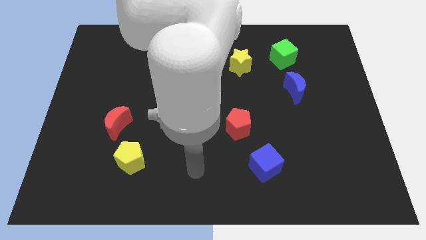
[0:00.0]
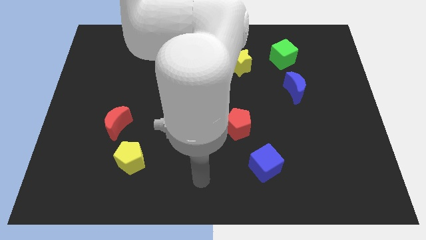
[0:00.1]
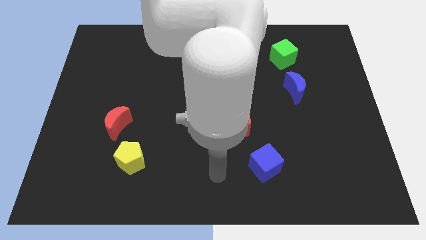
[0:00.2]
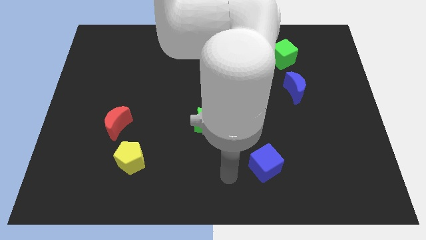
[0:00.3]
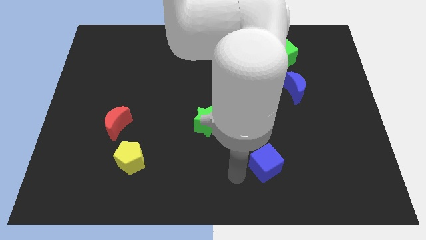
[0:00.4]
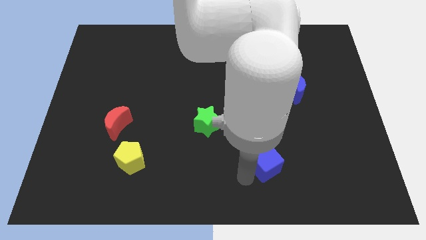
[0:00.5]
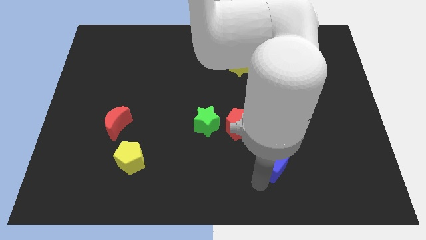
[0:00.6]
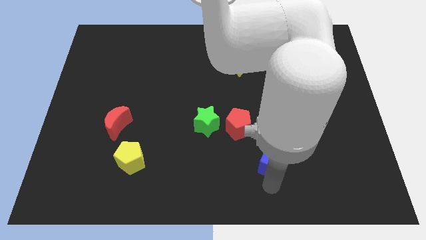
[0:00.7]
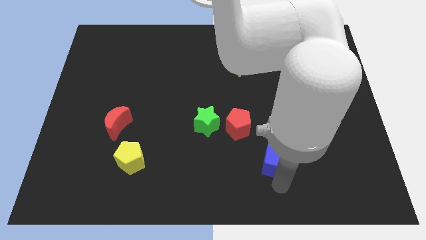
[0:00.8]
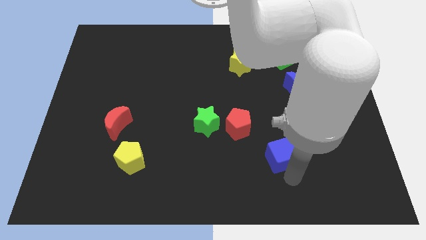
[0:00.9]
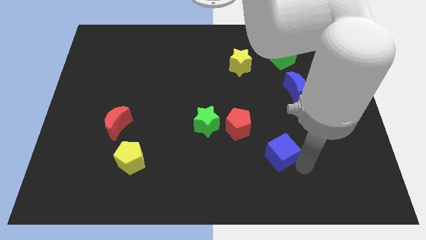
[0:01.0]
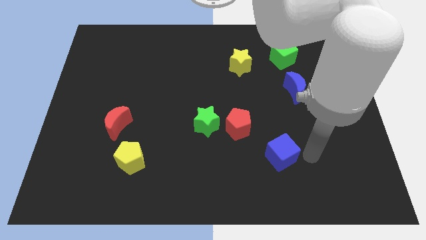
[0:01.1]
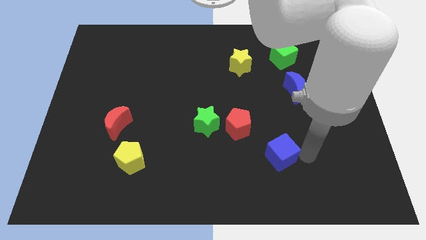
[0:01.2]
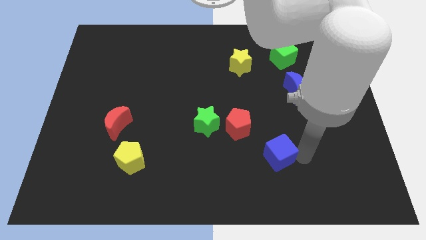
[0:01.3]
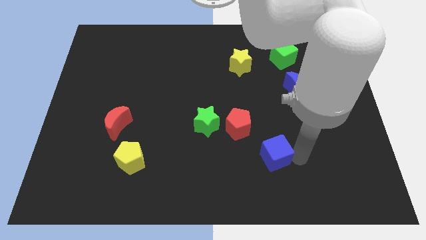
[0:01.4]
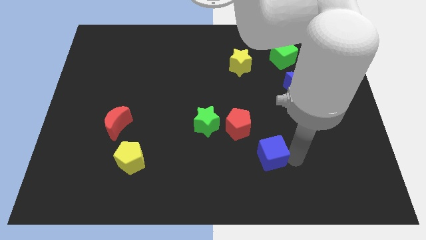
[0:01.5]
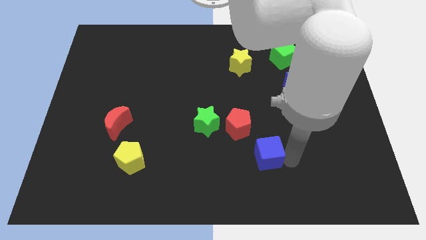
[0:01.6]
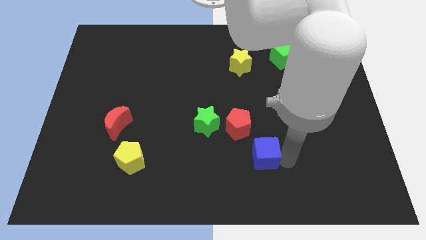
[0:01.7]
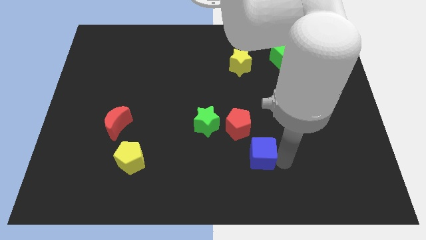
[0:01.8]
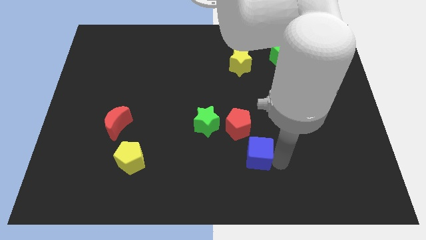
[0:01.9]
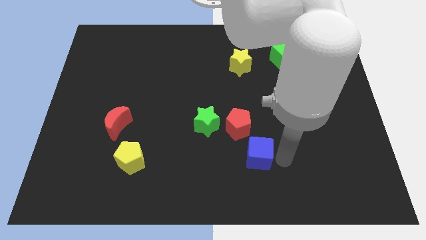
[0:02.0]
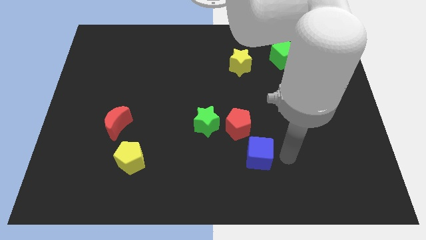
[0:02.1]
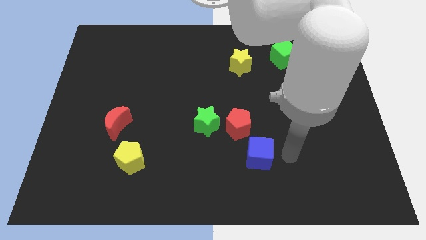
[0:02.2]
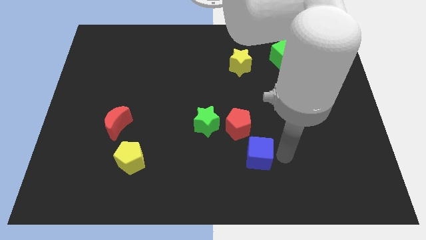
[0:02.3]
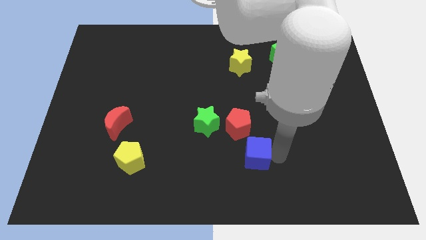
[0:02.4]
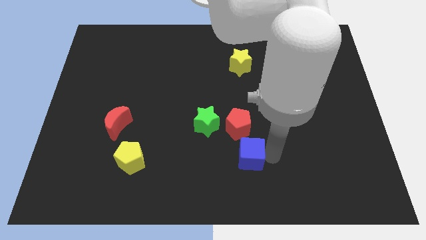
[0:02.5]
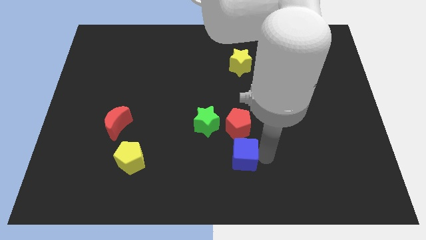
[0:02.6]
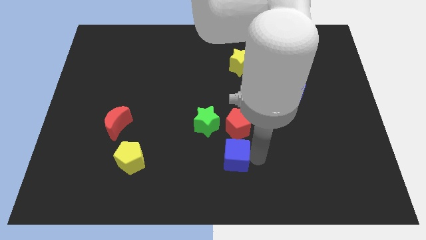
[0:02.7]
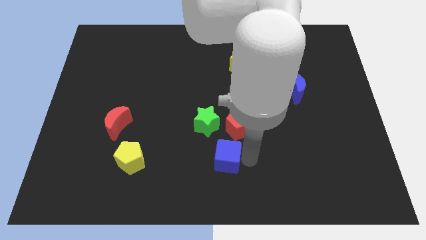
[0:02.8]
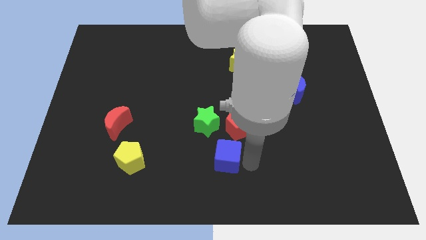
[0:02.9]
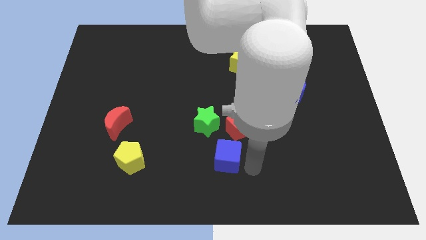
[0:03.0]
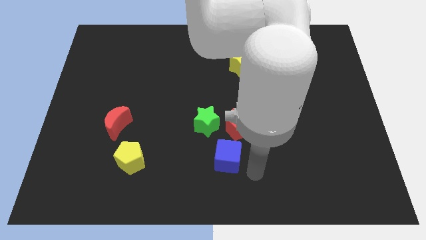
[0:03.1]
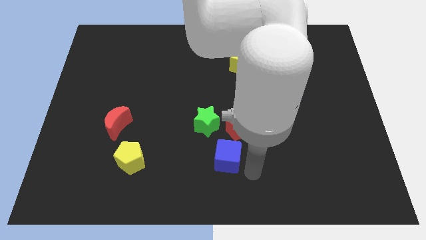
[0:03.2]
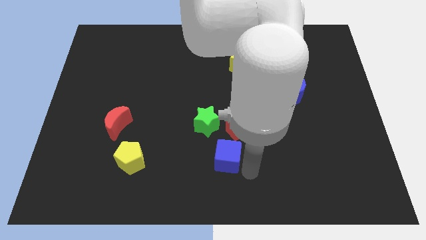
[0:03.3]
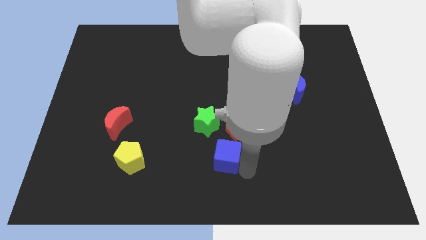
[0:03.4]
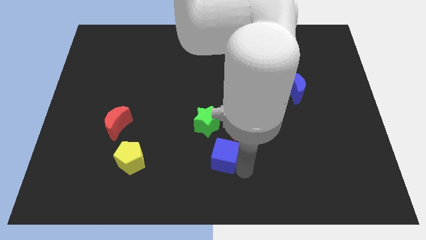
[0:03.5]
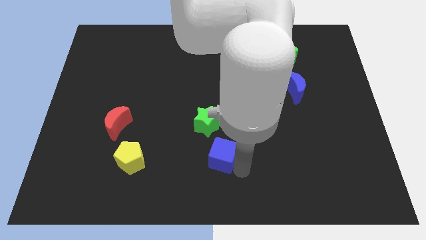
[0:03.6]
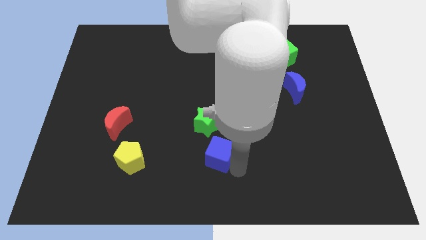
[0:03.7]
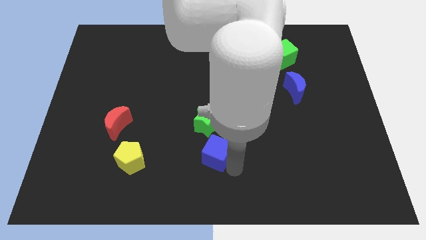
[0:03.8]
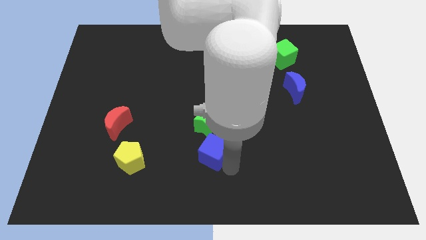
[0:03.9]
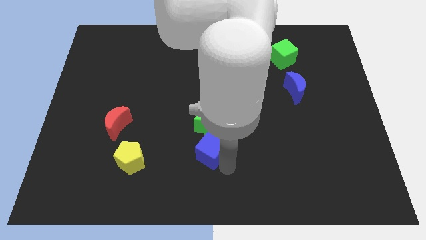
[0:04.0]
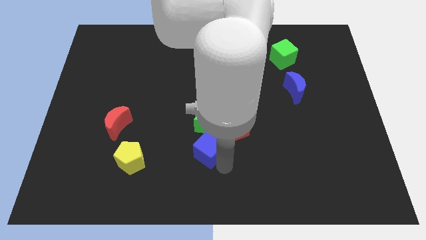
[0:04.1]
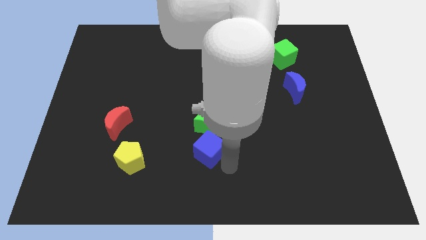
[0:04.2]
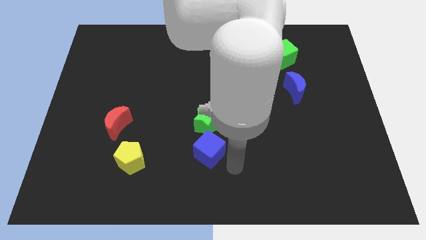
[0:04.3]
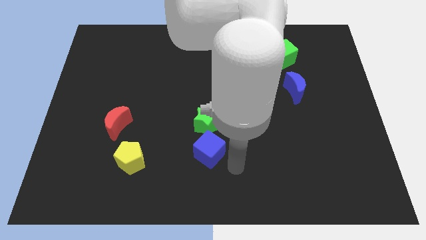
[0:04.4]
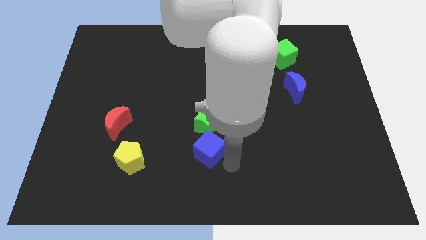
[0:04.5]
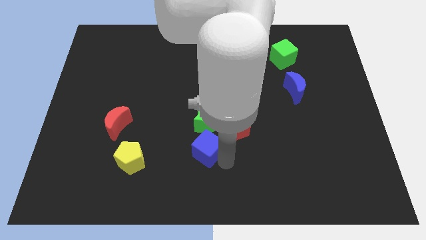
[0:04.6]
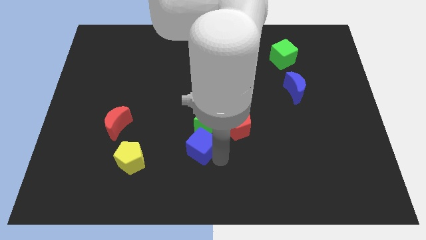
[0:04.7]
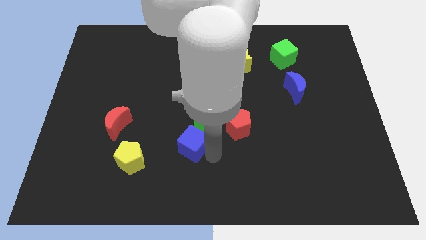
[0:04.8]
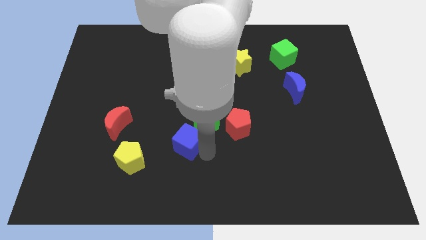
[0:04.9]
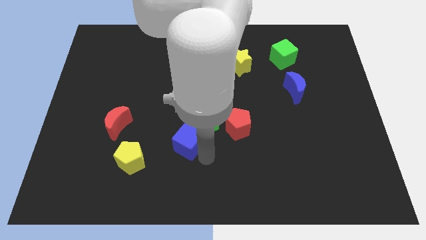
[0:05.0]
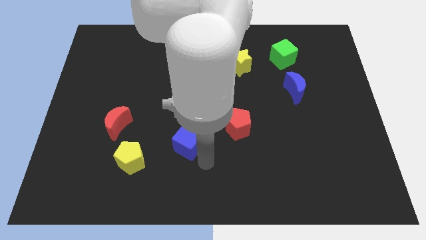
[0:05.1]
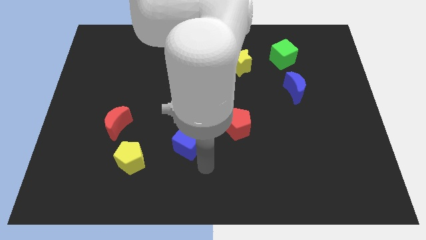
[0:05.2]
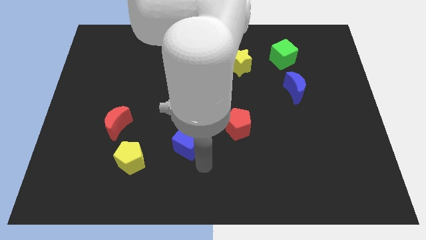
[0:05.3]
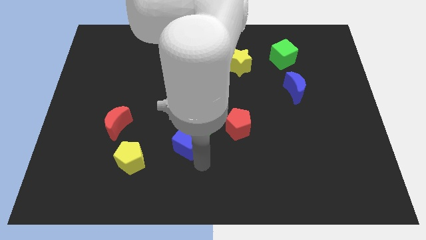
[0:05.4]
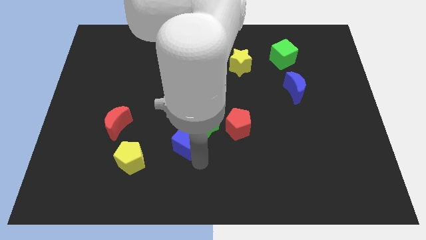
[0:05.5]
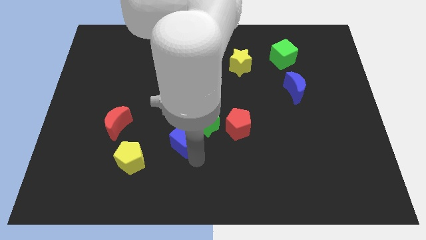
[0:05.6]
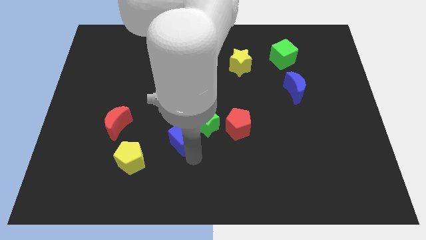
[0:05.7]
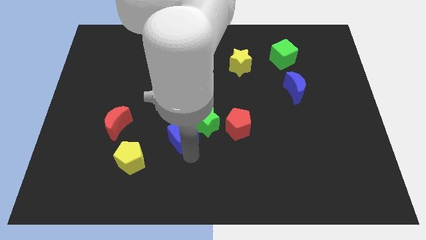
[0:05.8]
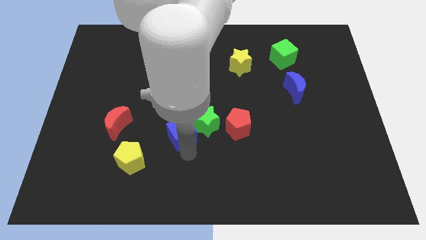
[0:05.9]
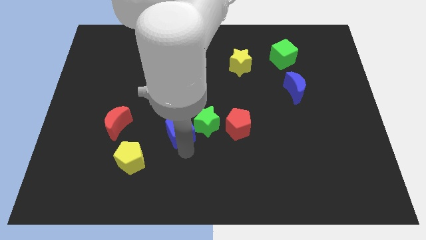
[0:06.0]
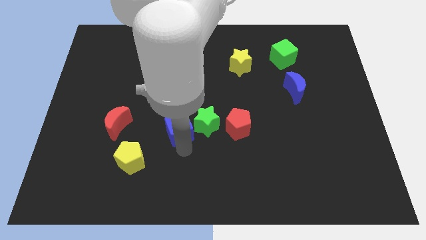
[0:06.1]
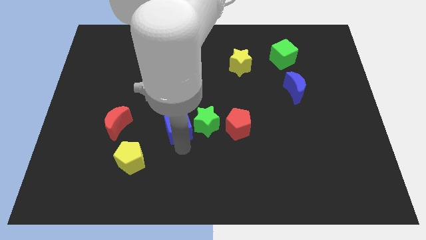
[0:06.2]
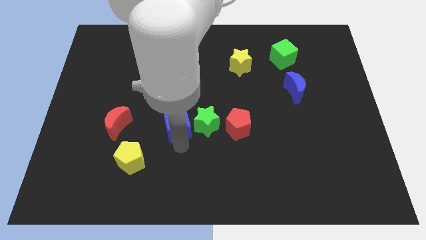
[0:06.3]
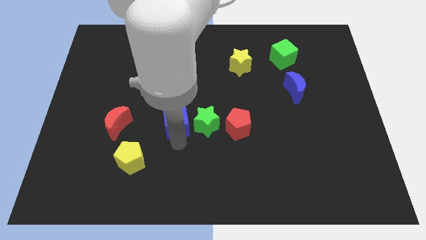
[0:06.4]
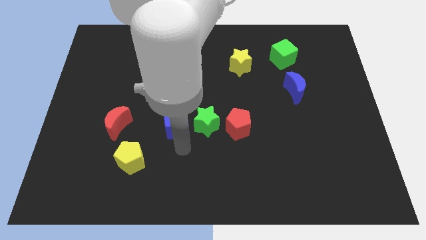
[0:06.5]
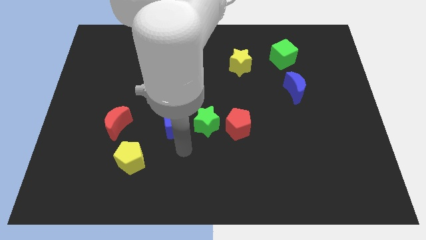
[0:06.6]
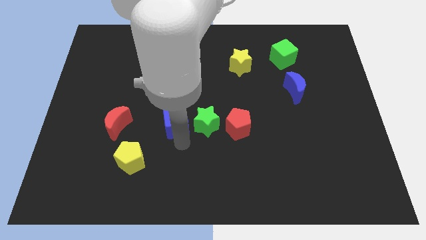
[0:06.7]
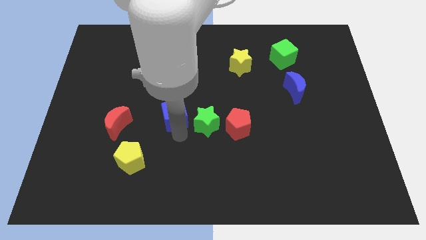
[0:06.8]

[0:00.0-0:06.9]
push the blue cube upwards and to the left

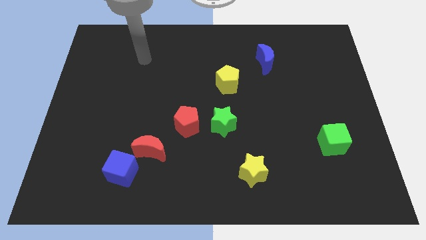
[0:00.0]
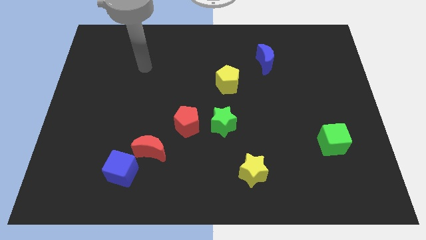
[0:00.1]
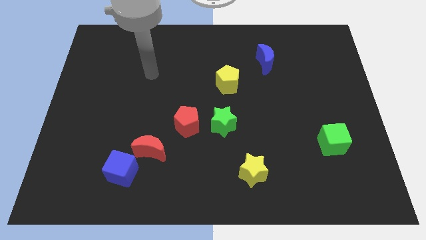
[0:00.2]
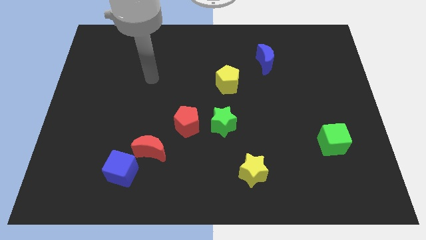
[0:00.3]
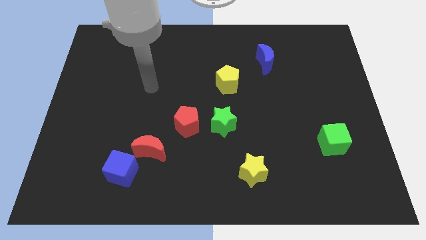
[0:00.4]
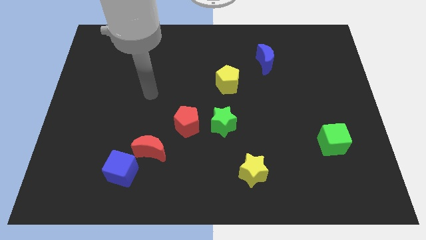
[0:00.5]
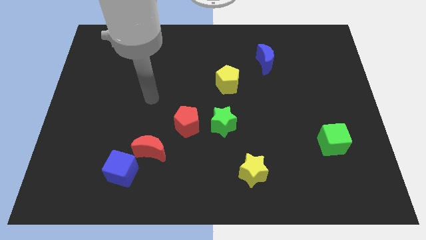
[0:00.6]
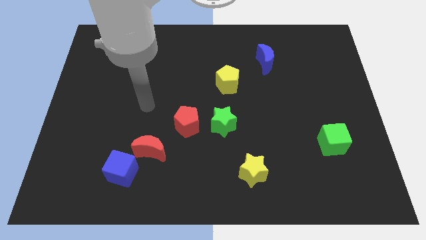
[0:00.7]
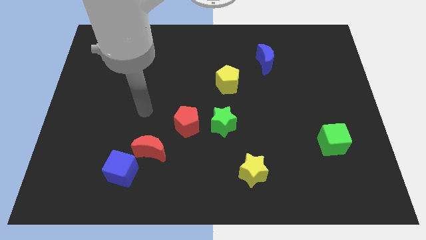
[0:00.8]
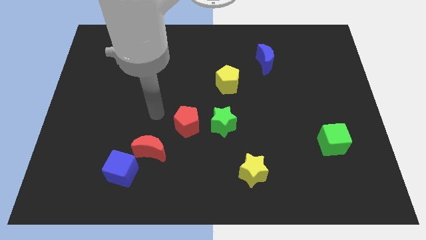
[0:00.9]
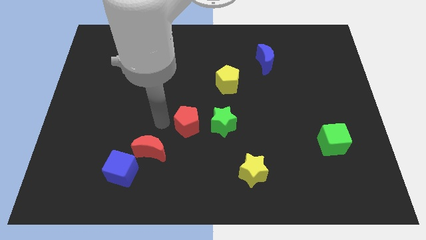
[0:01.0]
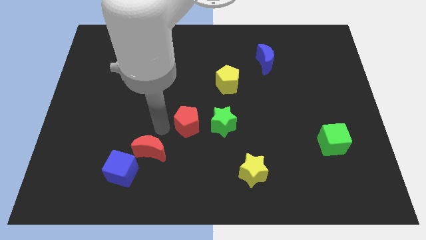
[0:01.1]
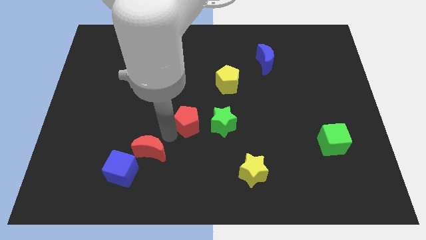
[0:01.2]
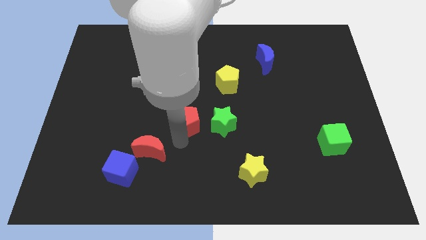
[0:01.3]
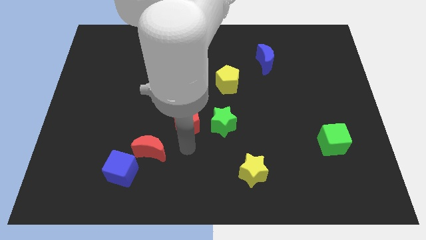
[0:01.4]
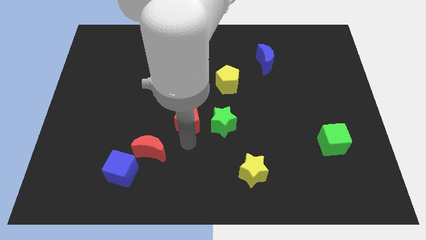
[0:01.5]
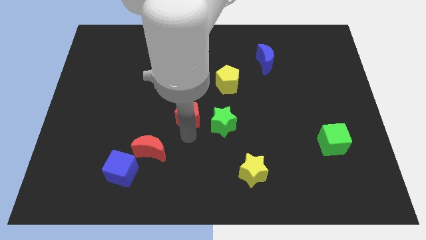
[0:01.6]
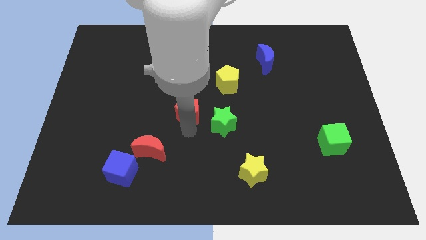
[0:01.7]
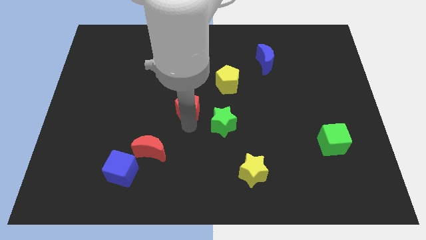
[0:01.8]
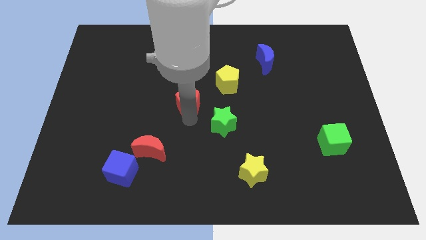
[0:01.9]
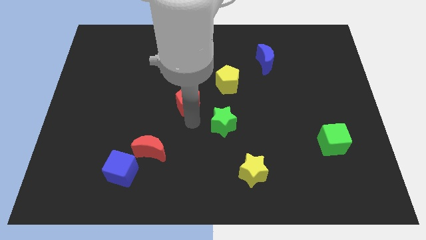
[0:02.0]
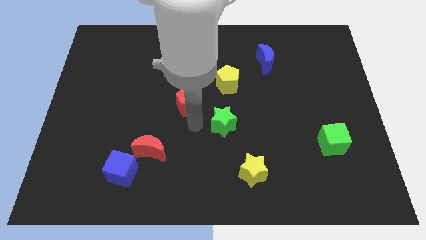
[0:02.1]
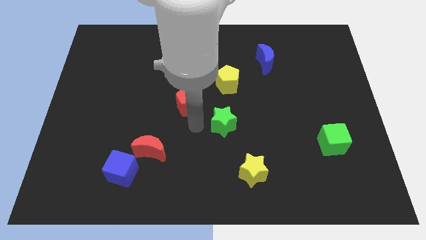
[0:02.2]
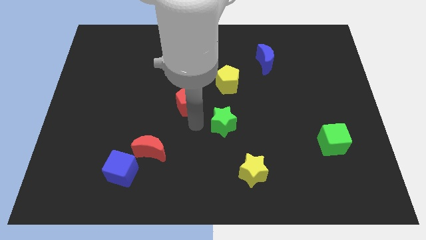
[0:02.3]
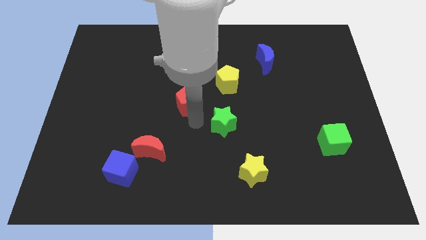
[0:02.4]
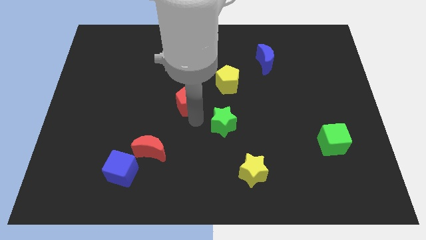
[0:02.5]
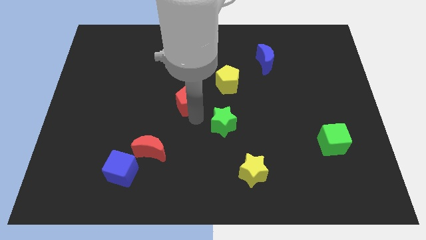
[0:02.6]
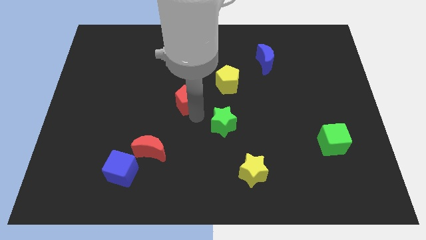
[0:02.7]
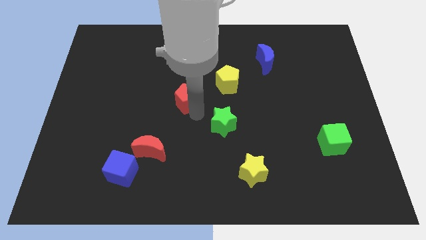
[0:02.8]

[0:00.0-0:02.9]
move the red pentagon slightly up
